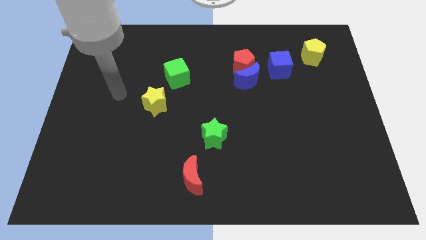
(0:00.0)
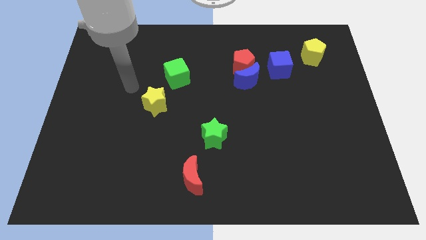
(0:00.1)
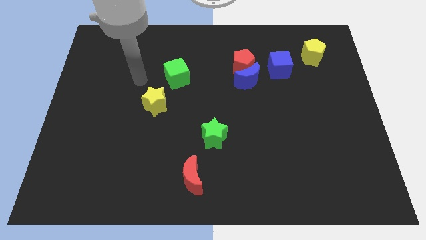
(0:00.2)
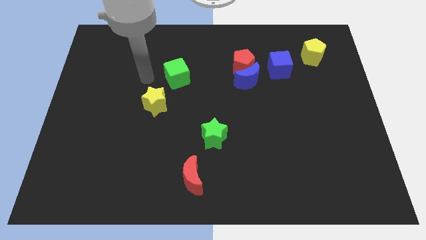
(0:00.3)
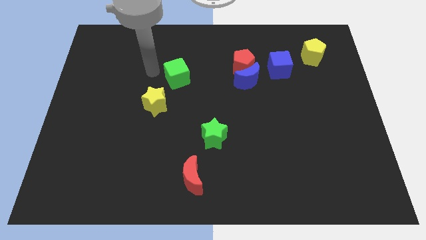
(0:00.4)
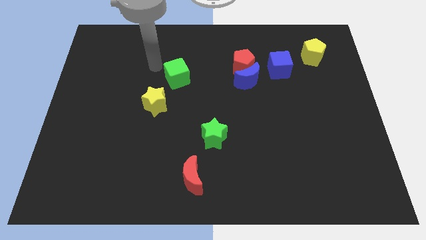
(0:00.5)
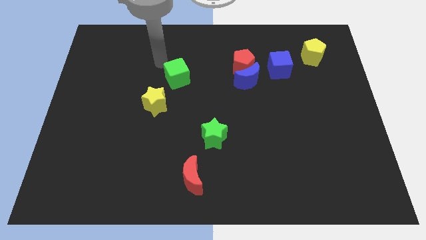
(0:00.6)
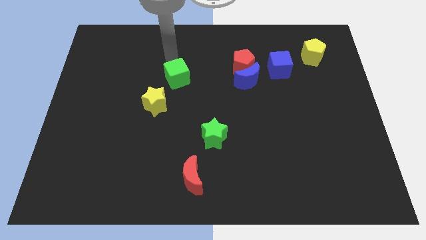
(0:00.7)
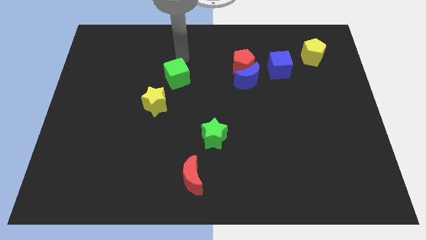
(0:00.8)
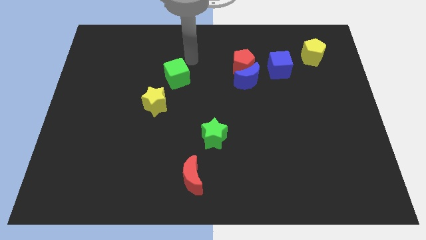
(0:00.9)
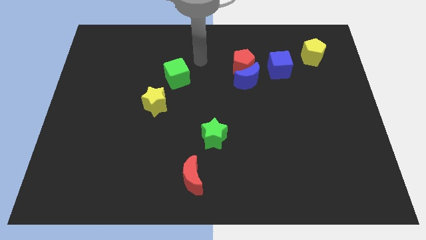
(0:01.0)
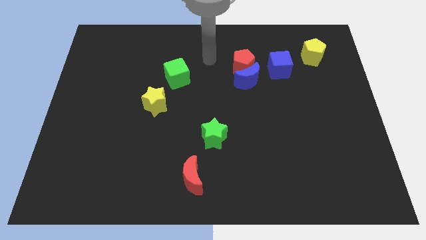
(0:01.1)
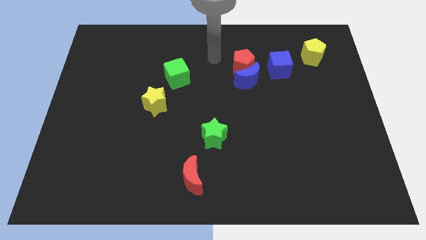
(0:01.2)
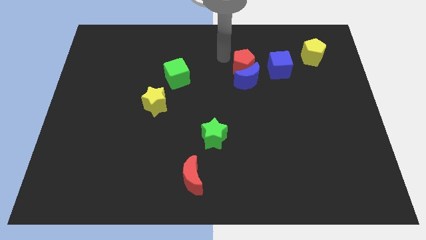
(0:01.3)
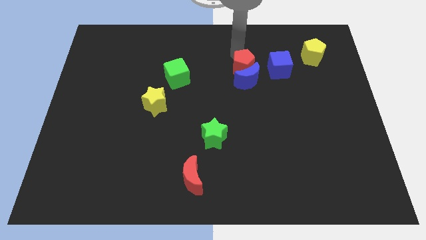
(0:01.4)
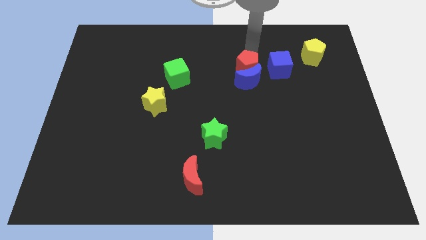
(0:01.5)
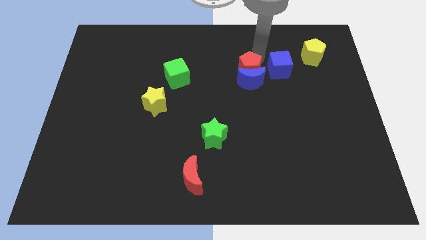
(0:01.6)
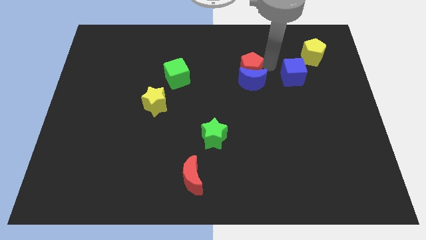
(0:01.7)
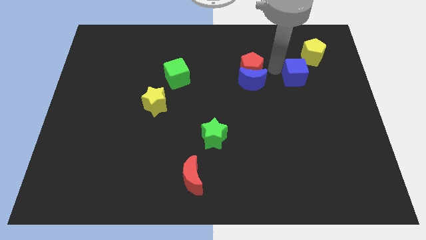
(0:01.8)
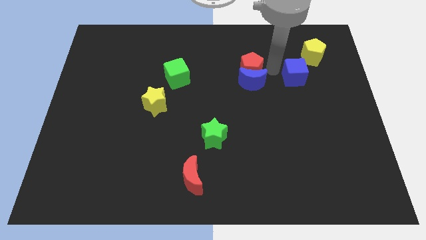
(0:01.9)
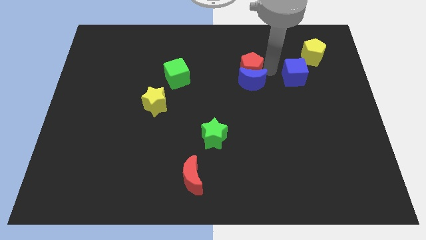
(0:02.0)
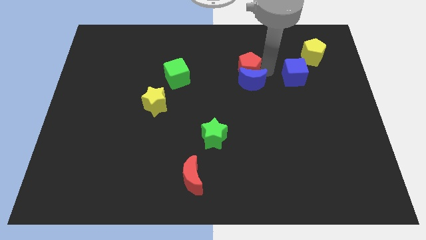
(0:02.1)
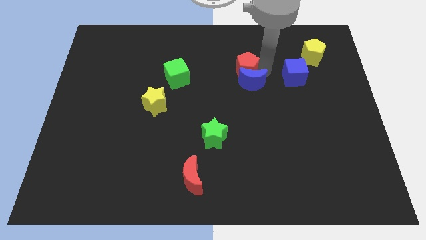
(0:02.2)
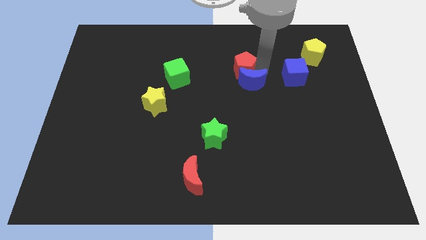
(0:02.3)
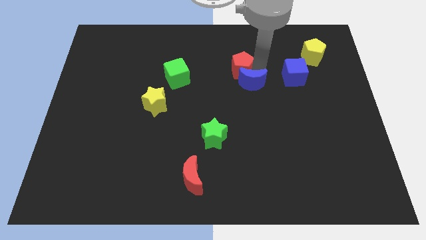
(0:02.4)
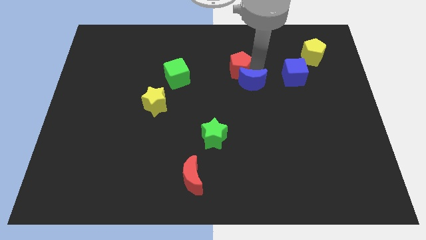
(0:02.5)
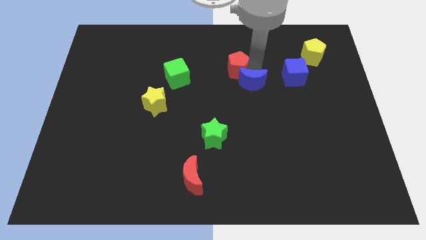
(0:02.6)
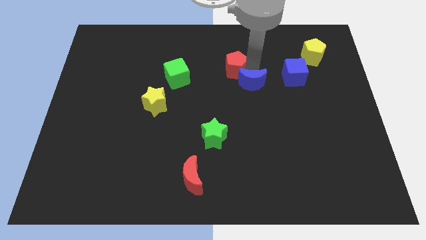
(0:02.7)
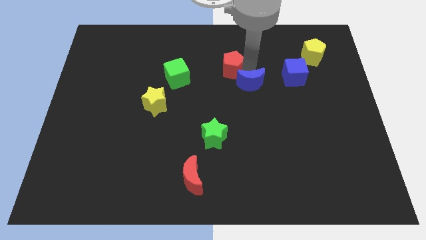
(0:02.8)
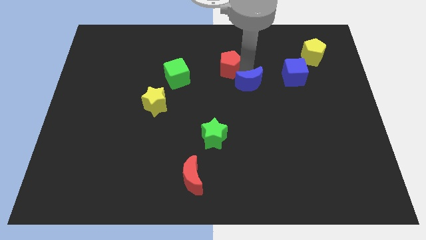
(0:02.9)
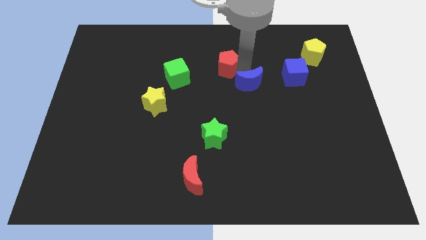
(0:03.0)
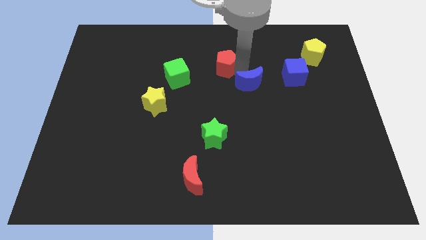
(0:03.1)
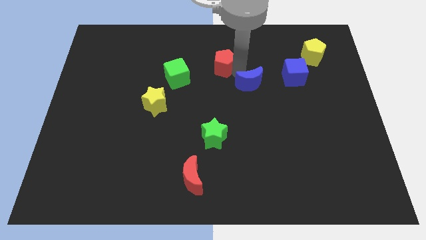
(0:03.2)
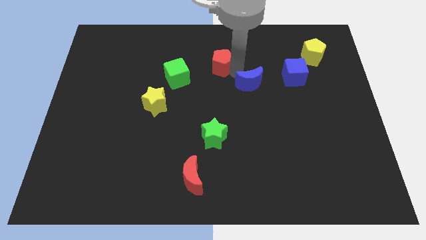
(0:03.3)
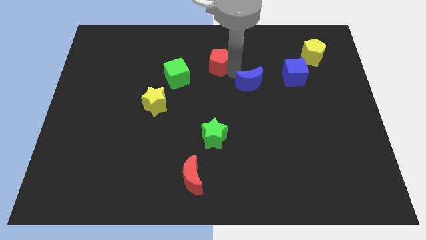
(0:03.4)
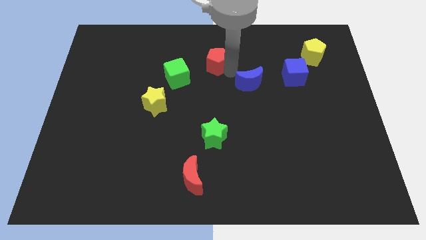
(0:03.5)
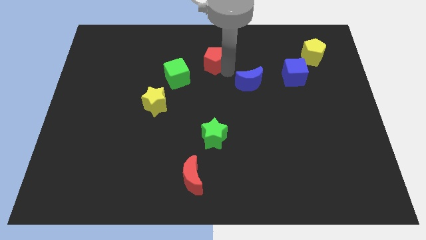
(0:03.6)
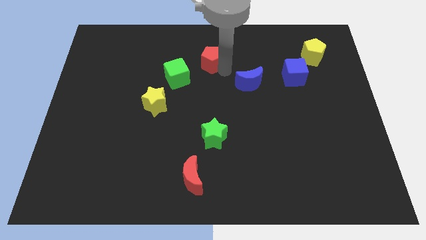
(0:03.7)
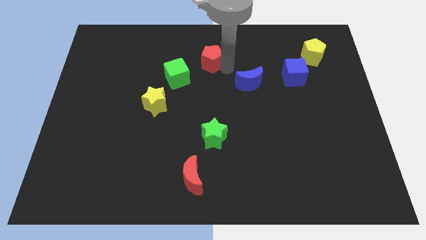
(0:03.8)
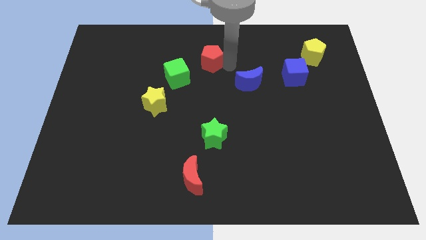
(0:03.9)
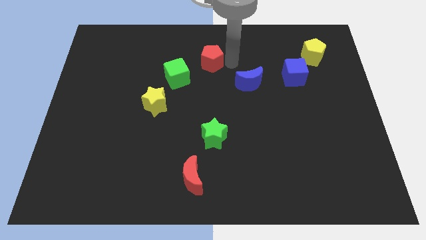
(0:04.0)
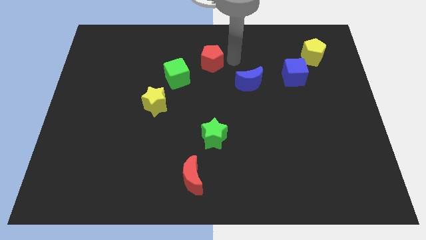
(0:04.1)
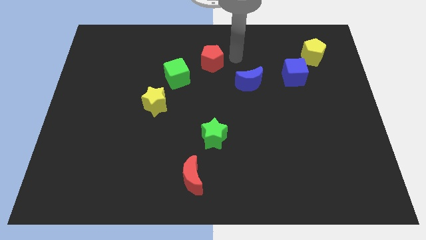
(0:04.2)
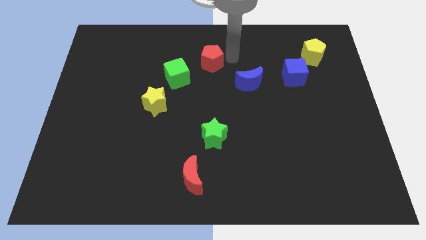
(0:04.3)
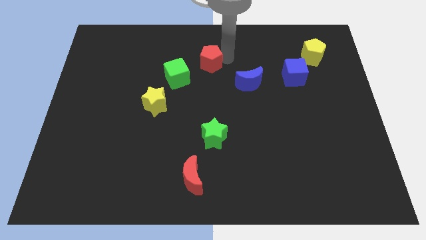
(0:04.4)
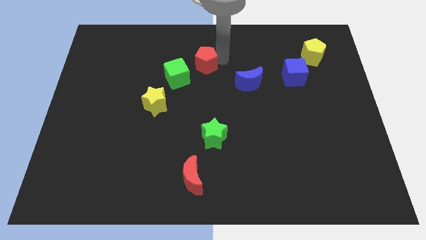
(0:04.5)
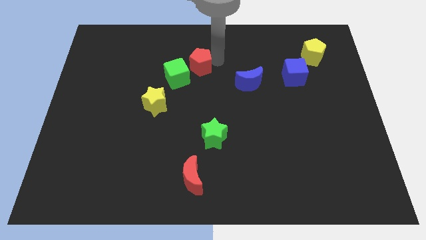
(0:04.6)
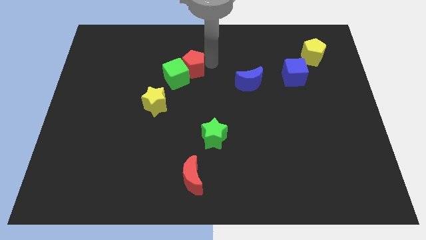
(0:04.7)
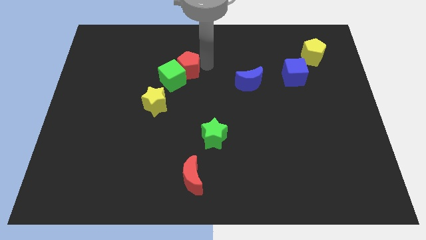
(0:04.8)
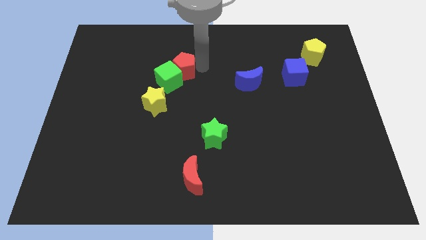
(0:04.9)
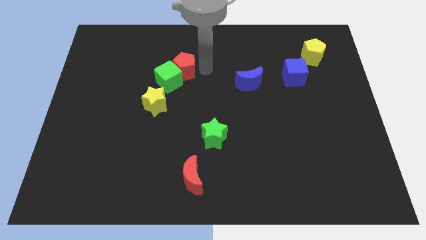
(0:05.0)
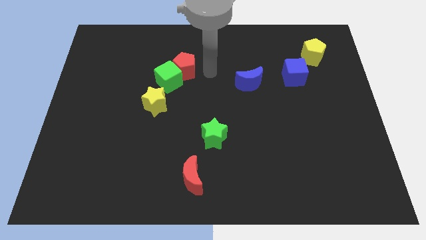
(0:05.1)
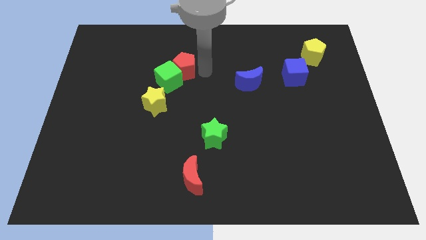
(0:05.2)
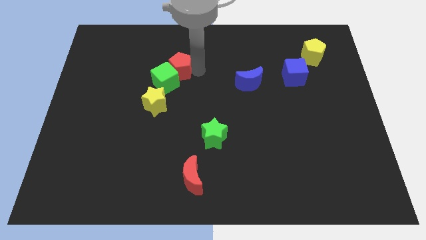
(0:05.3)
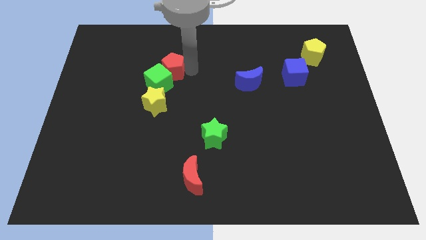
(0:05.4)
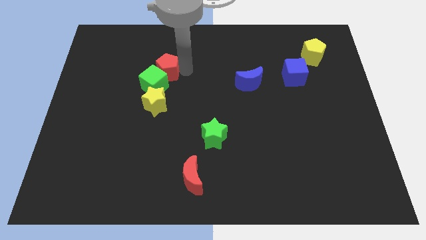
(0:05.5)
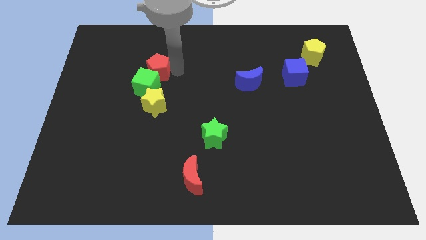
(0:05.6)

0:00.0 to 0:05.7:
slide the red pentagon left

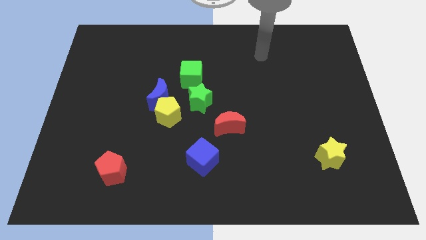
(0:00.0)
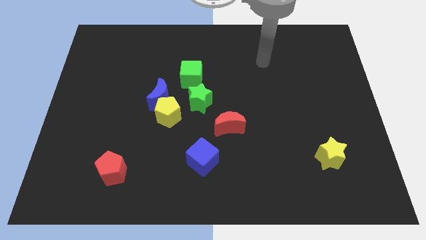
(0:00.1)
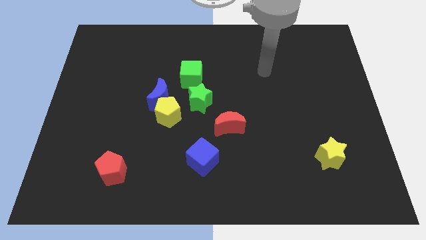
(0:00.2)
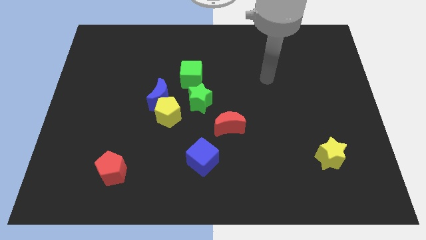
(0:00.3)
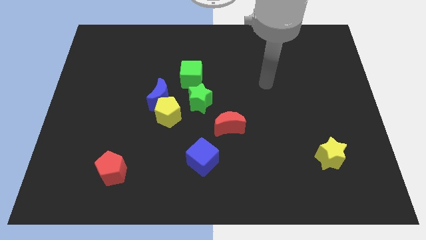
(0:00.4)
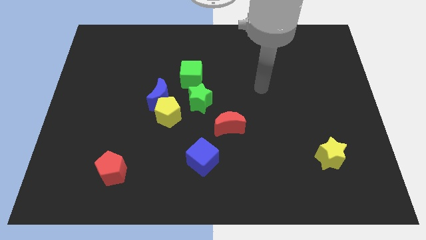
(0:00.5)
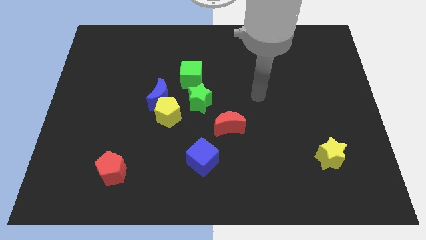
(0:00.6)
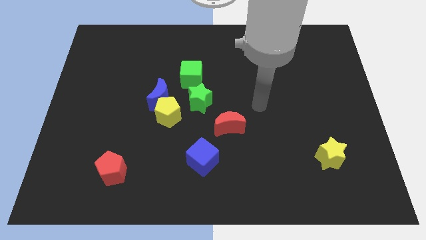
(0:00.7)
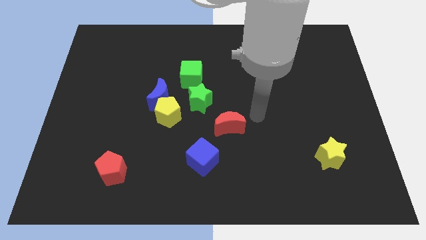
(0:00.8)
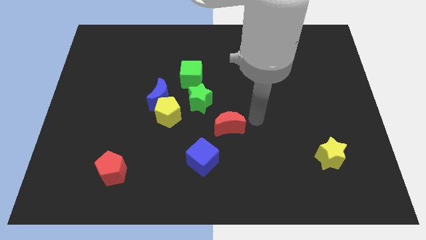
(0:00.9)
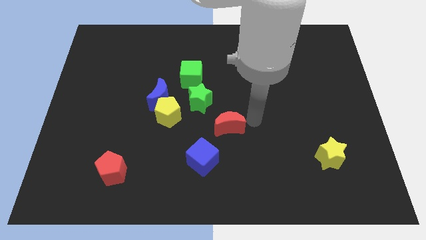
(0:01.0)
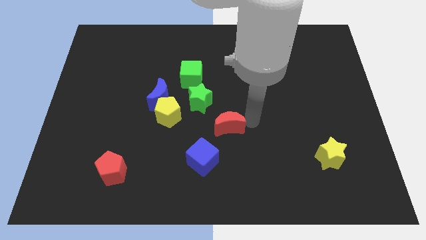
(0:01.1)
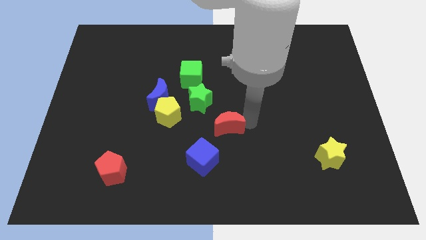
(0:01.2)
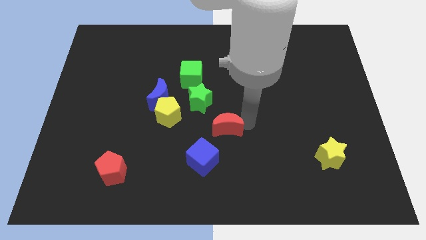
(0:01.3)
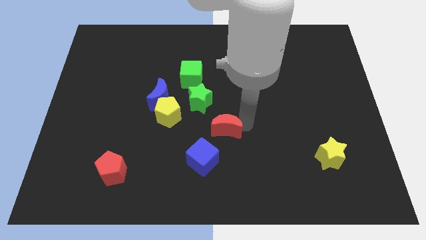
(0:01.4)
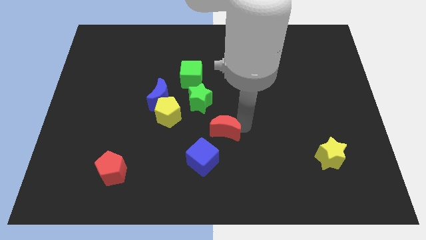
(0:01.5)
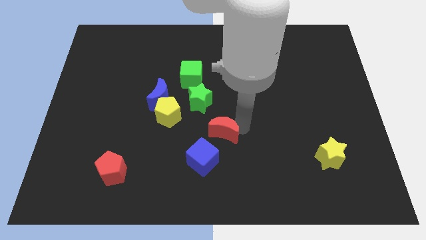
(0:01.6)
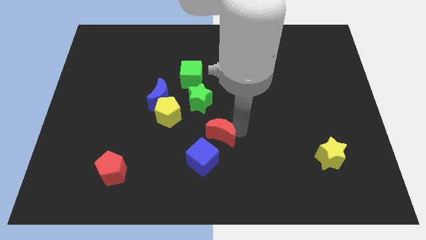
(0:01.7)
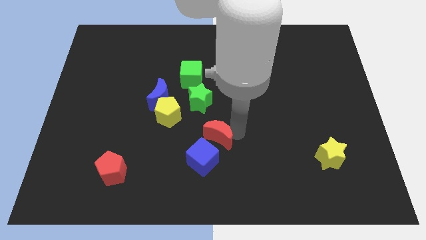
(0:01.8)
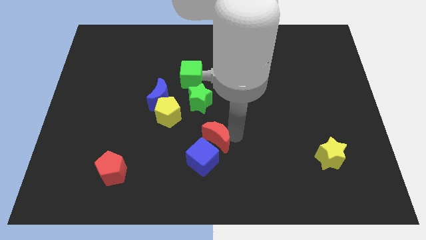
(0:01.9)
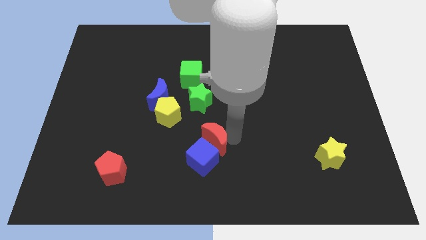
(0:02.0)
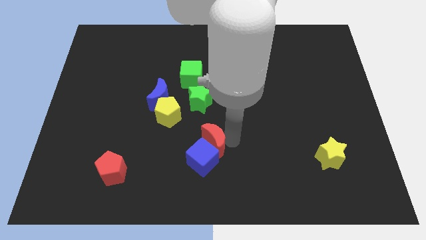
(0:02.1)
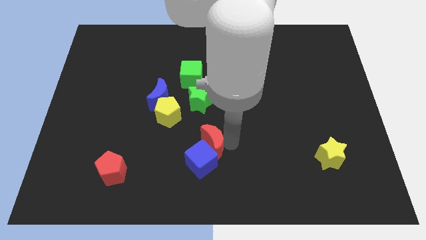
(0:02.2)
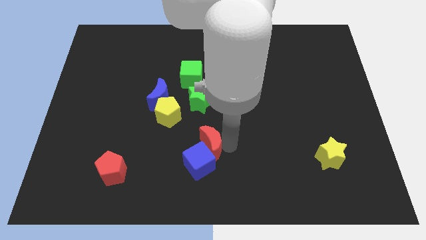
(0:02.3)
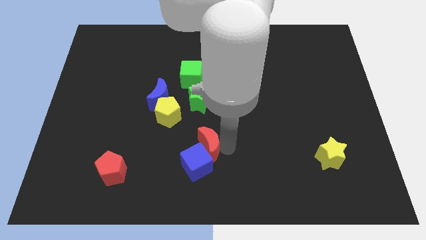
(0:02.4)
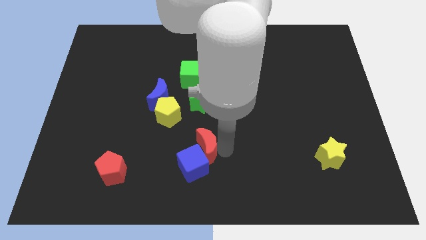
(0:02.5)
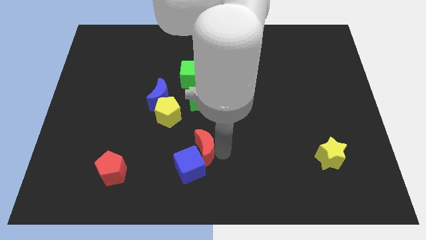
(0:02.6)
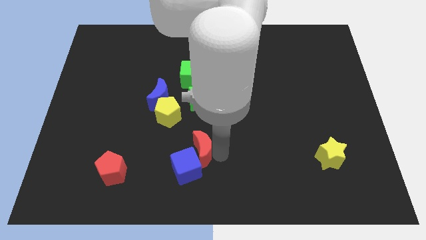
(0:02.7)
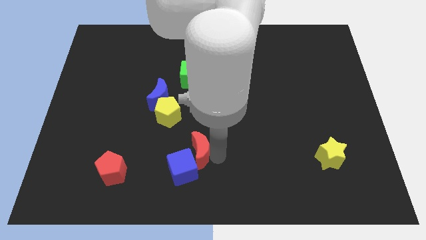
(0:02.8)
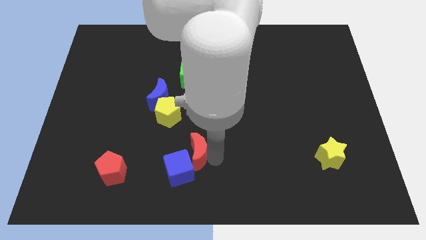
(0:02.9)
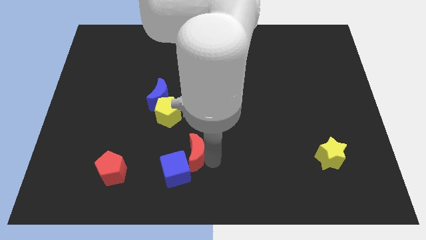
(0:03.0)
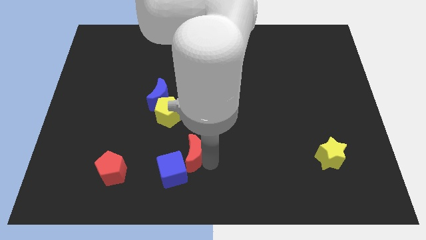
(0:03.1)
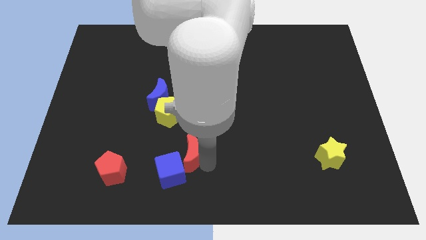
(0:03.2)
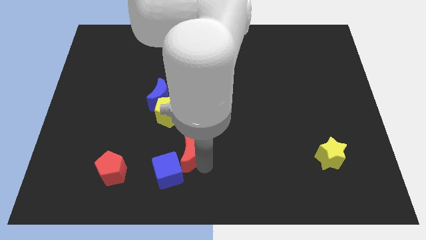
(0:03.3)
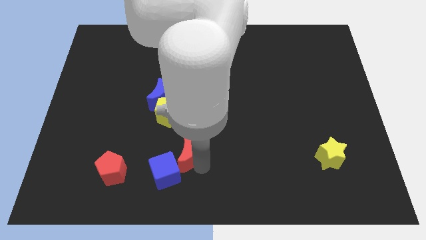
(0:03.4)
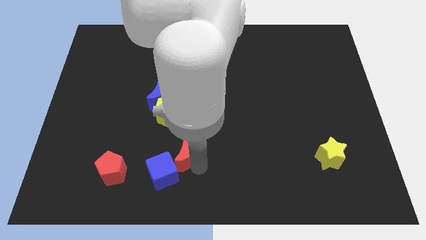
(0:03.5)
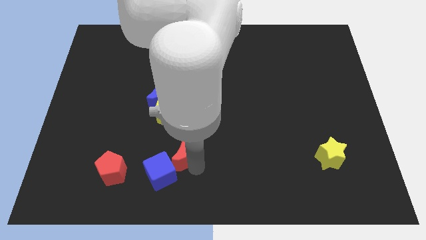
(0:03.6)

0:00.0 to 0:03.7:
slide the red moon left a bit
